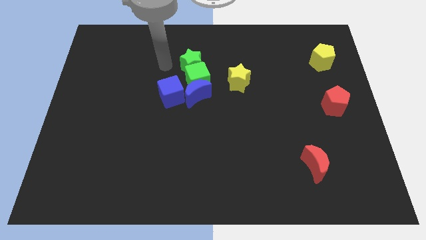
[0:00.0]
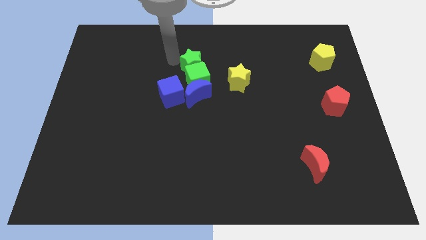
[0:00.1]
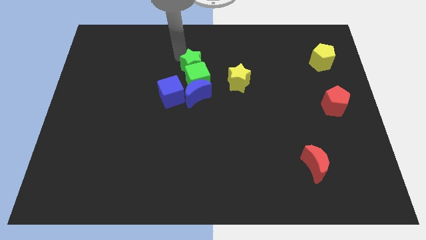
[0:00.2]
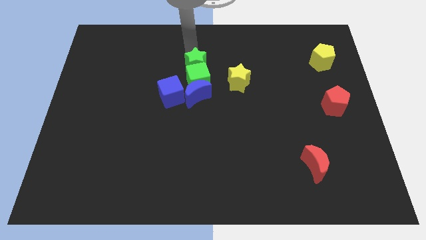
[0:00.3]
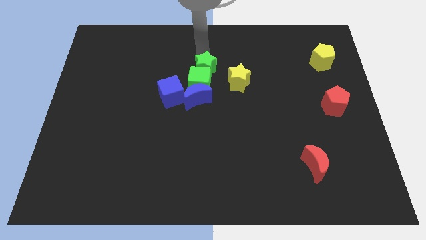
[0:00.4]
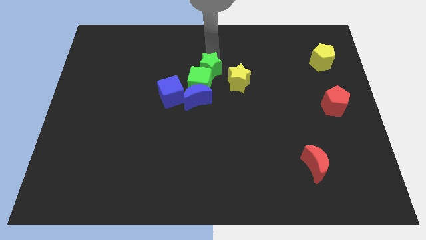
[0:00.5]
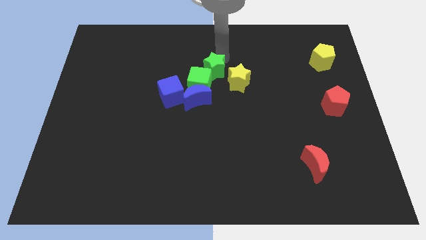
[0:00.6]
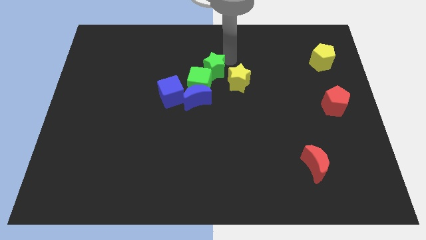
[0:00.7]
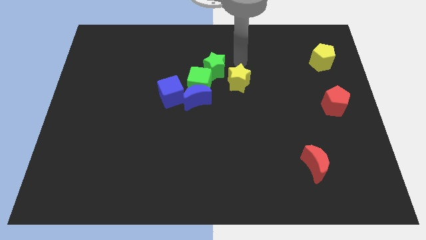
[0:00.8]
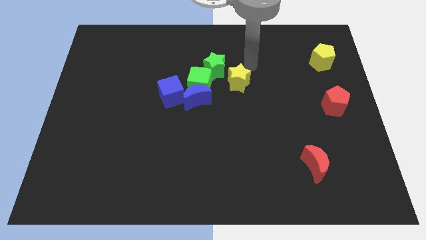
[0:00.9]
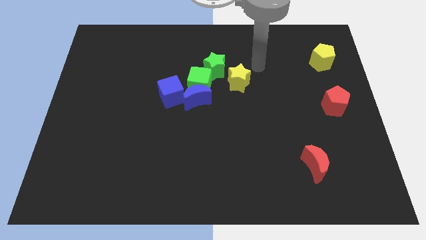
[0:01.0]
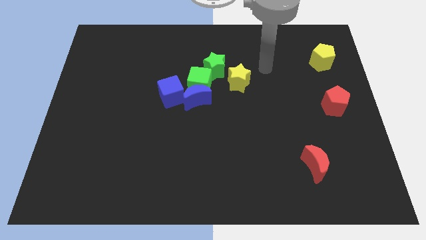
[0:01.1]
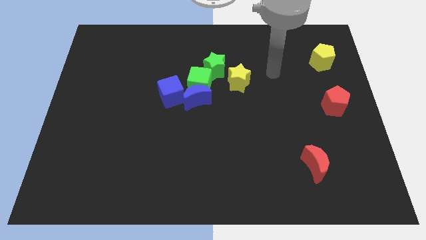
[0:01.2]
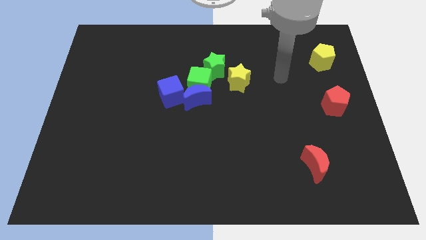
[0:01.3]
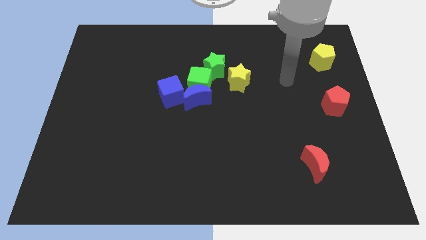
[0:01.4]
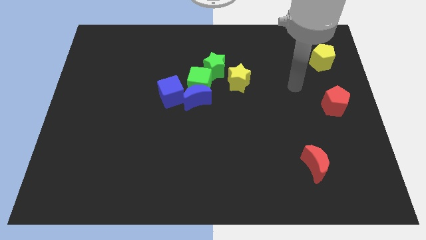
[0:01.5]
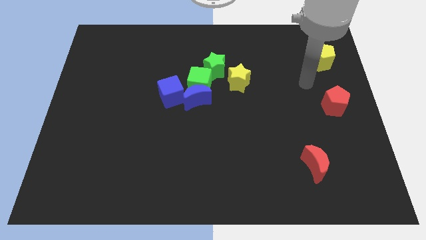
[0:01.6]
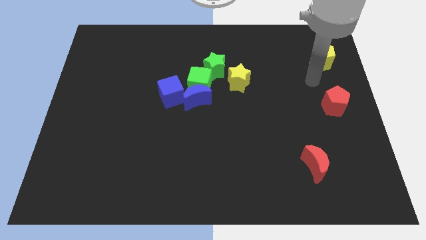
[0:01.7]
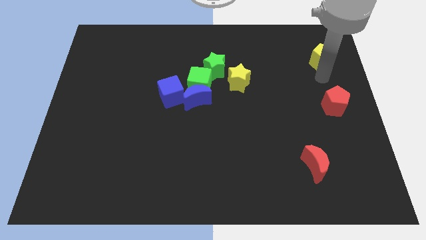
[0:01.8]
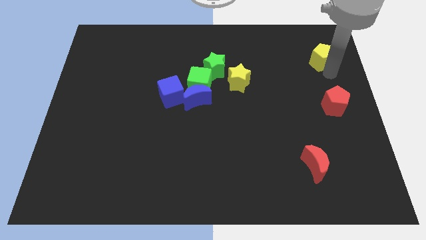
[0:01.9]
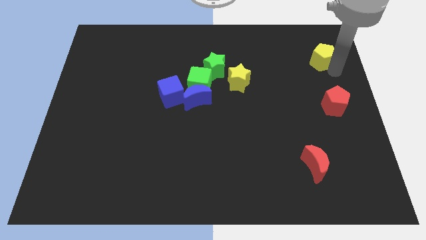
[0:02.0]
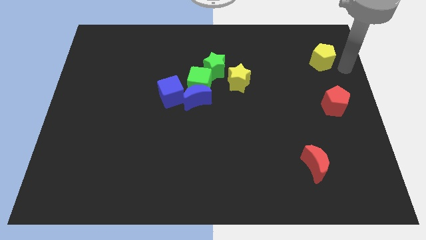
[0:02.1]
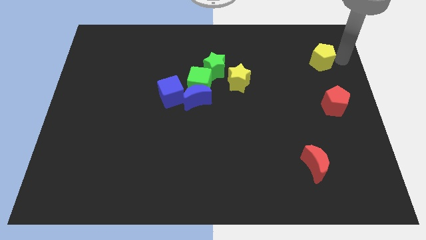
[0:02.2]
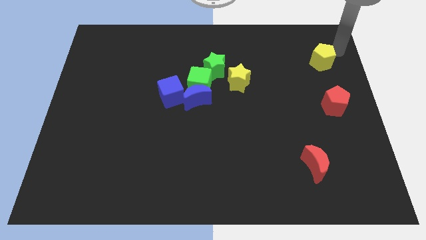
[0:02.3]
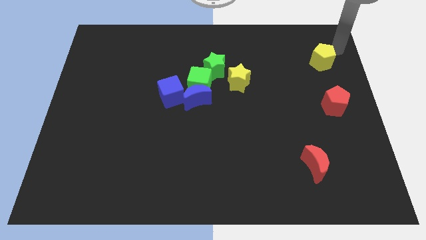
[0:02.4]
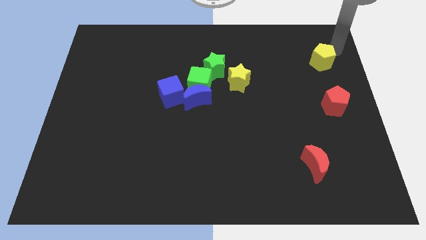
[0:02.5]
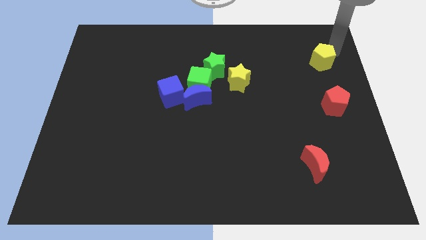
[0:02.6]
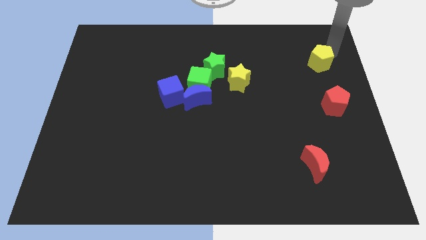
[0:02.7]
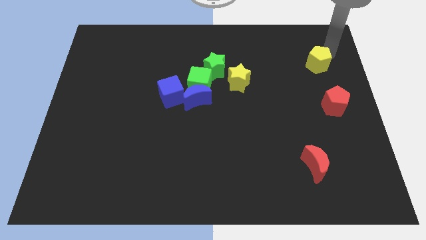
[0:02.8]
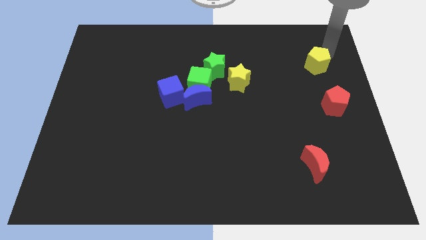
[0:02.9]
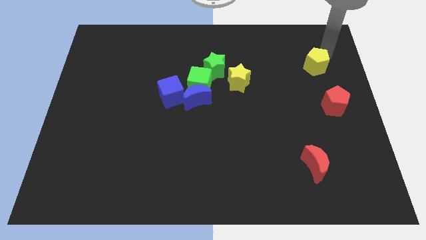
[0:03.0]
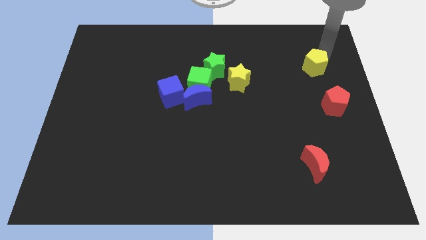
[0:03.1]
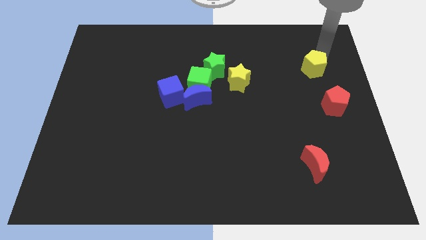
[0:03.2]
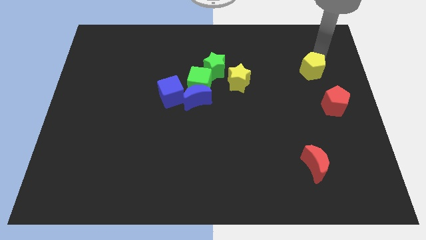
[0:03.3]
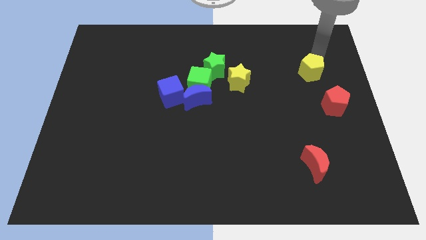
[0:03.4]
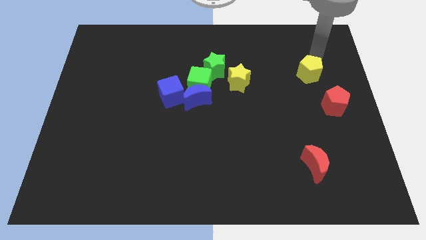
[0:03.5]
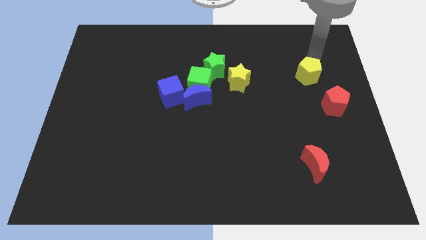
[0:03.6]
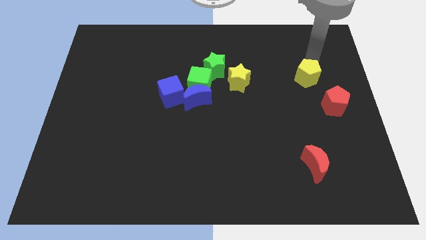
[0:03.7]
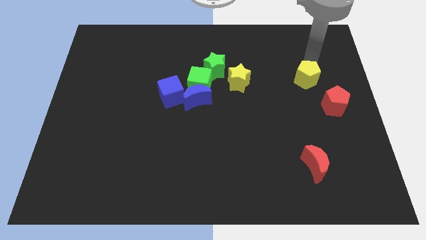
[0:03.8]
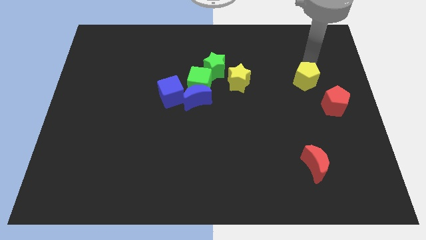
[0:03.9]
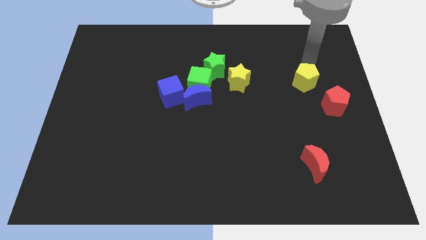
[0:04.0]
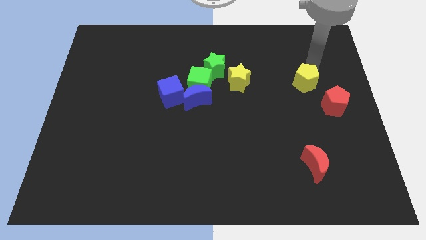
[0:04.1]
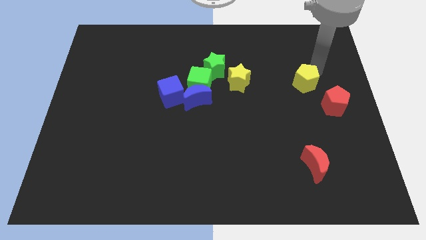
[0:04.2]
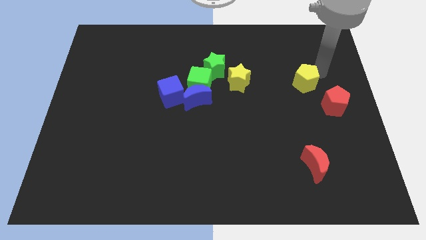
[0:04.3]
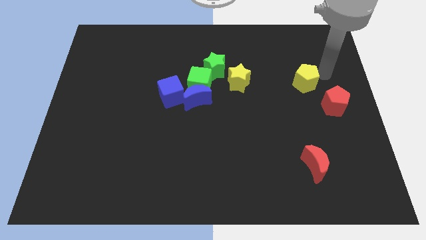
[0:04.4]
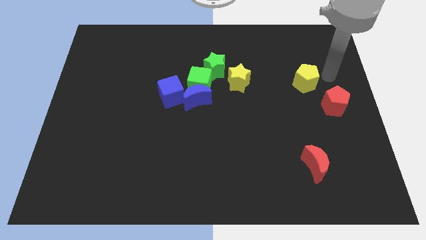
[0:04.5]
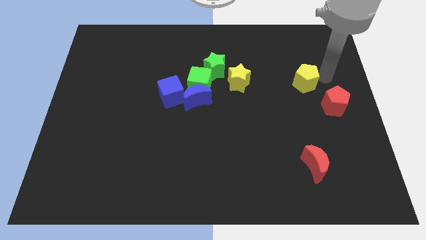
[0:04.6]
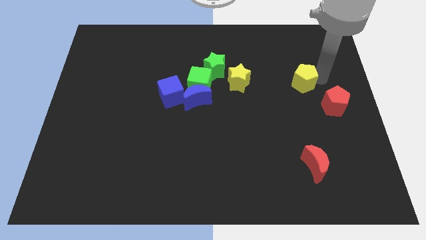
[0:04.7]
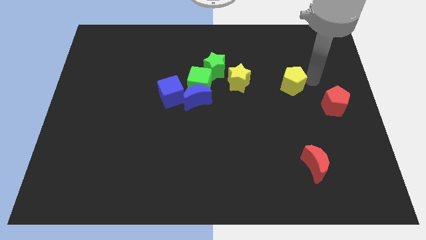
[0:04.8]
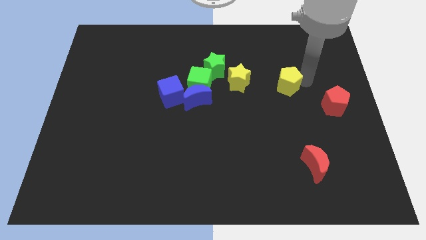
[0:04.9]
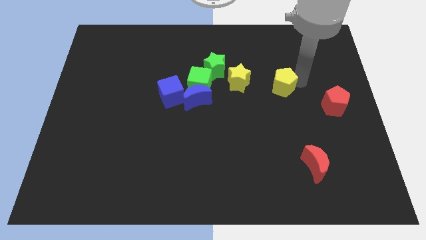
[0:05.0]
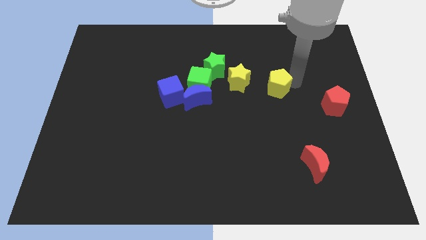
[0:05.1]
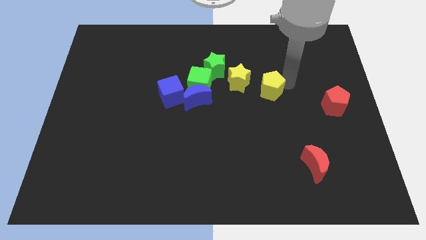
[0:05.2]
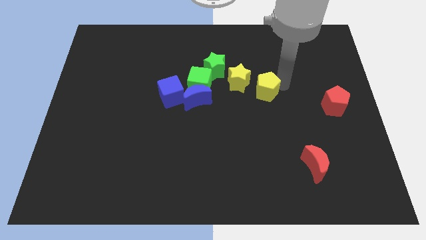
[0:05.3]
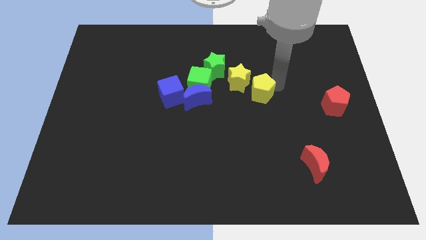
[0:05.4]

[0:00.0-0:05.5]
slide the yellow pentagon right of the blue moon

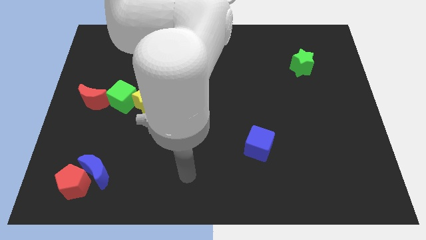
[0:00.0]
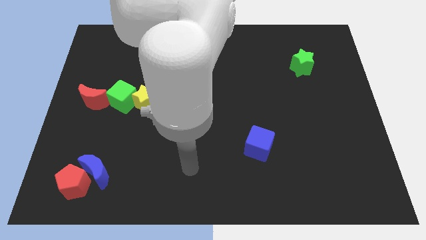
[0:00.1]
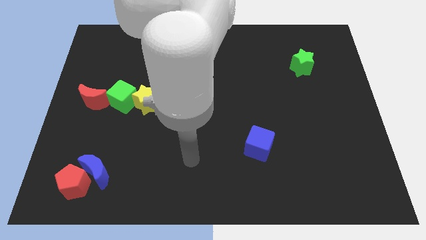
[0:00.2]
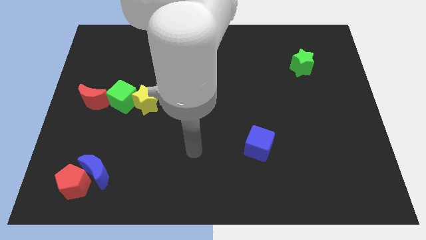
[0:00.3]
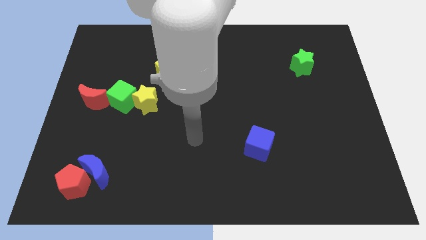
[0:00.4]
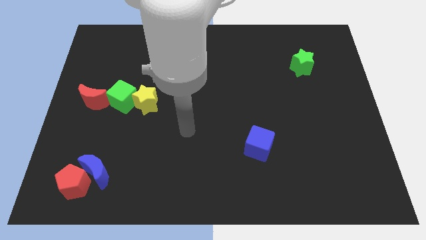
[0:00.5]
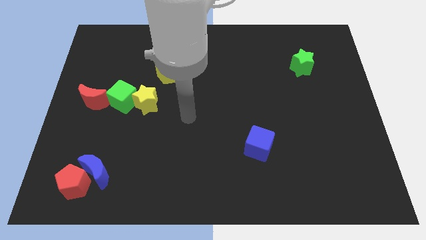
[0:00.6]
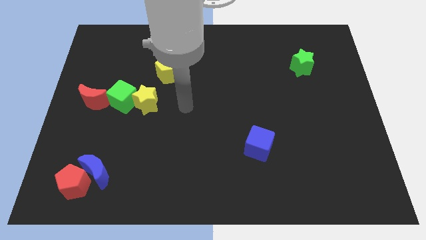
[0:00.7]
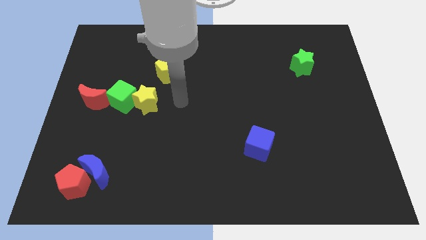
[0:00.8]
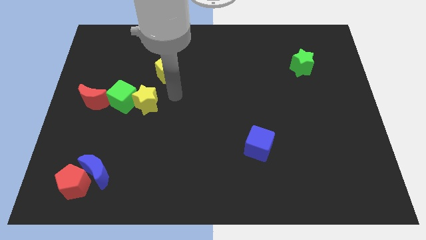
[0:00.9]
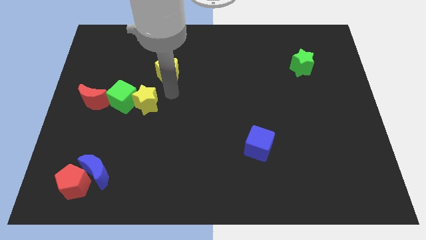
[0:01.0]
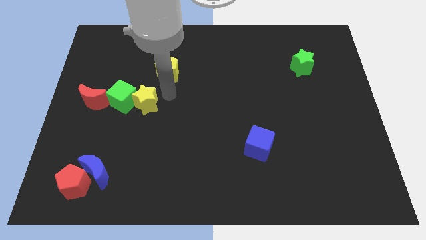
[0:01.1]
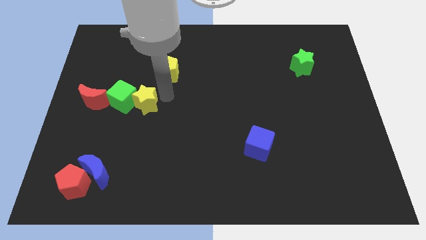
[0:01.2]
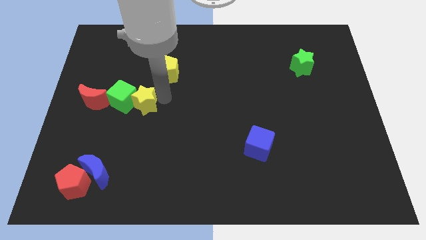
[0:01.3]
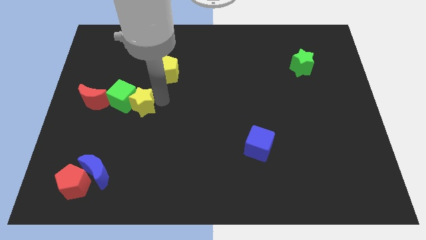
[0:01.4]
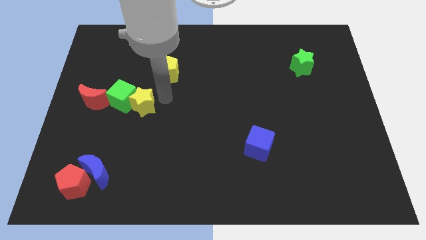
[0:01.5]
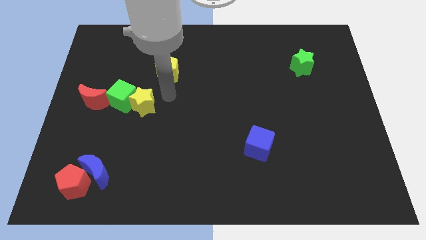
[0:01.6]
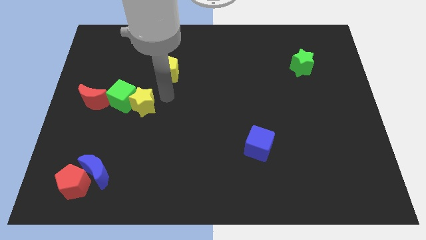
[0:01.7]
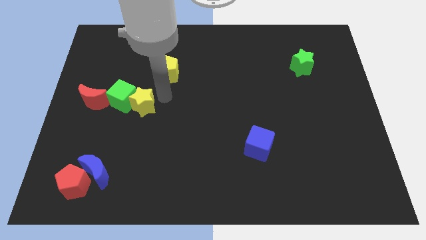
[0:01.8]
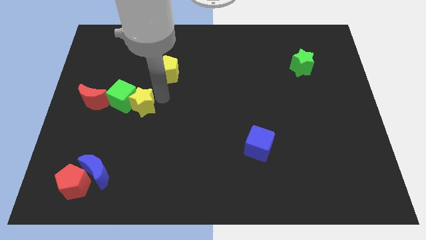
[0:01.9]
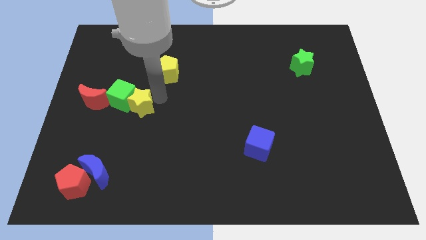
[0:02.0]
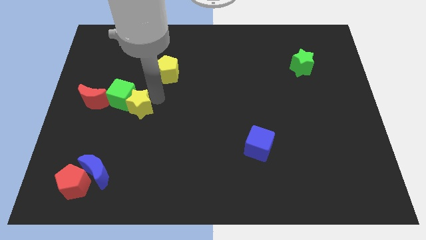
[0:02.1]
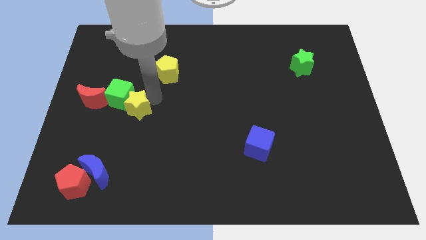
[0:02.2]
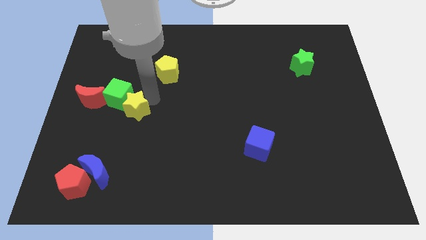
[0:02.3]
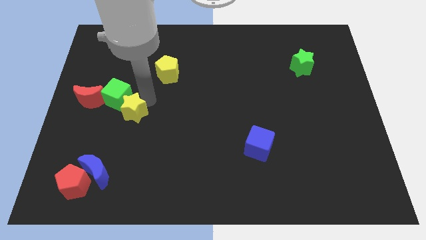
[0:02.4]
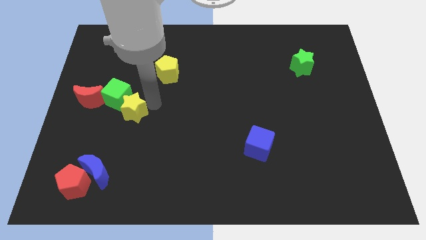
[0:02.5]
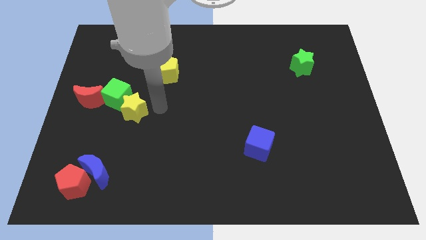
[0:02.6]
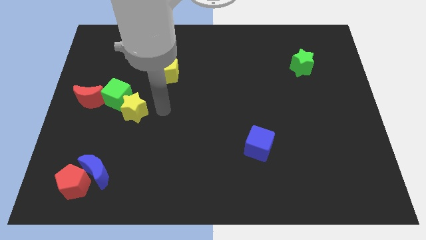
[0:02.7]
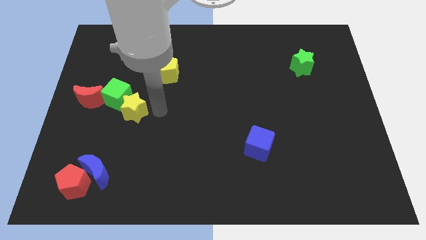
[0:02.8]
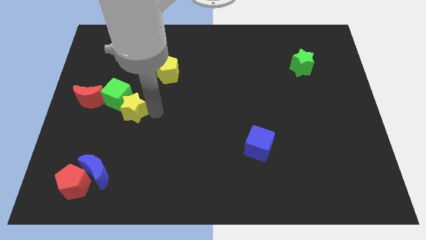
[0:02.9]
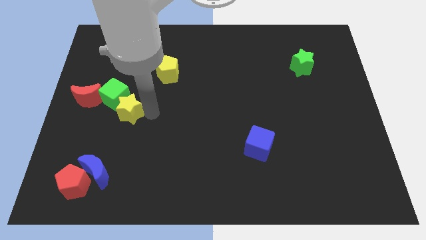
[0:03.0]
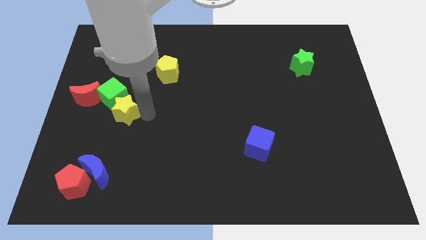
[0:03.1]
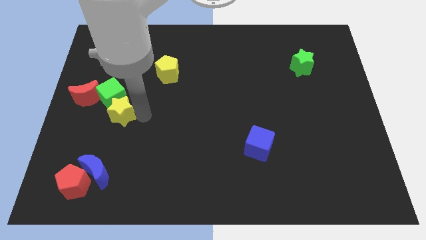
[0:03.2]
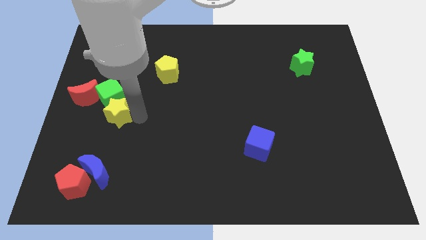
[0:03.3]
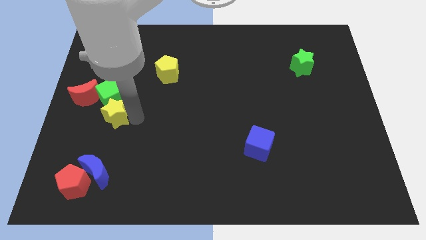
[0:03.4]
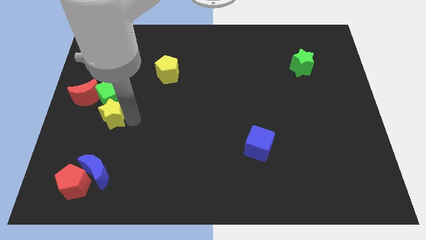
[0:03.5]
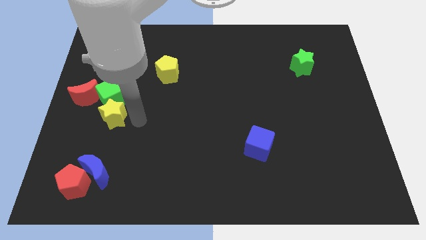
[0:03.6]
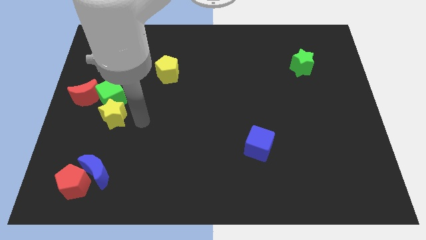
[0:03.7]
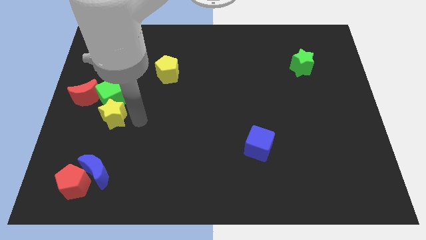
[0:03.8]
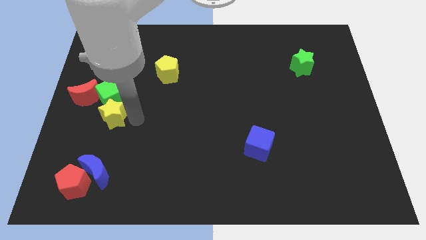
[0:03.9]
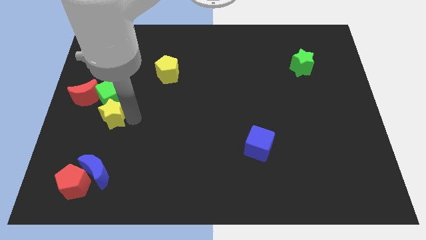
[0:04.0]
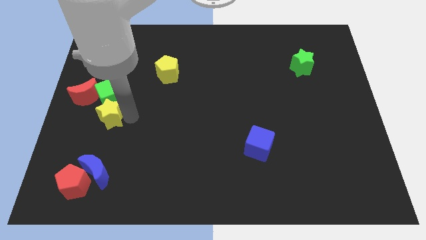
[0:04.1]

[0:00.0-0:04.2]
put the yellow star to the bottom left of the green cube
